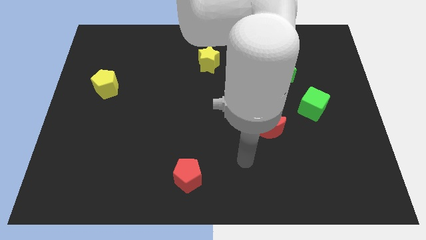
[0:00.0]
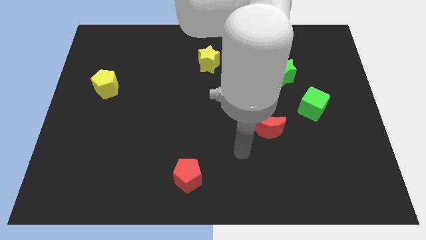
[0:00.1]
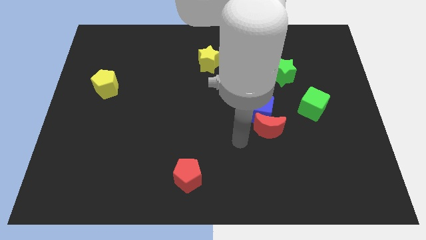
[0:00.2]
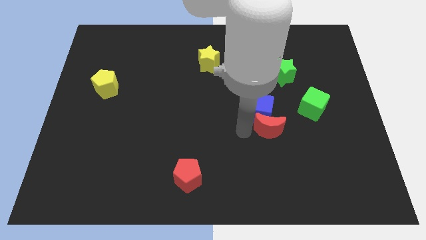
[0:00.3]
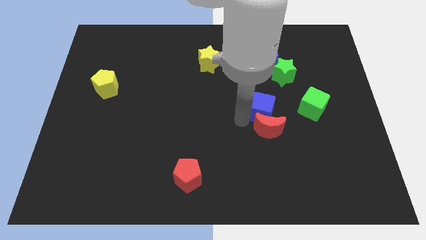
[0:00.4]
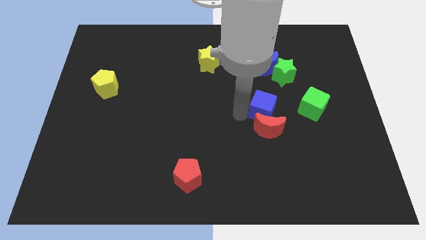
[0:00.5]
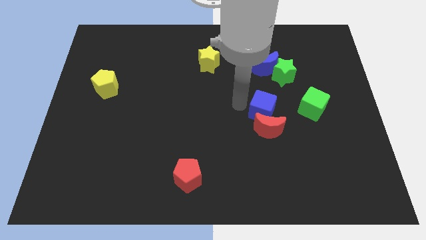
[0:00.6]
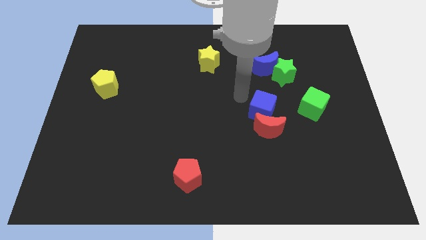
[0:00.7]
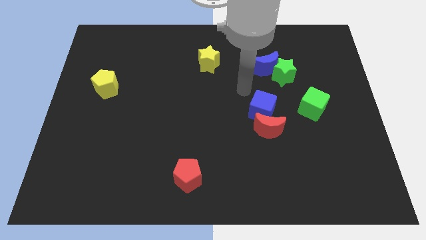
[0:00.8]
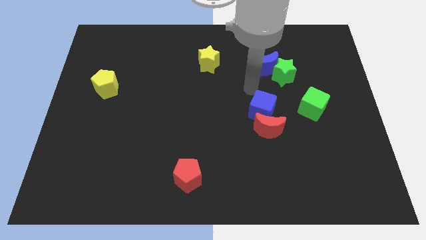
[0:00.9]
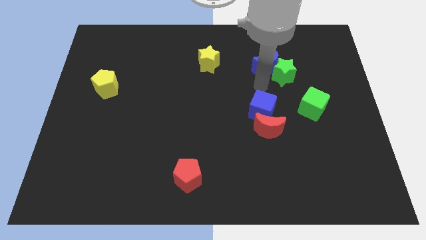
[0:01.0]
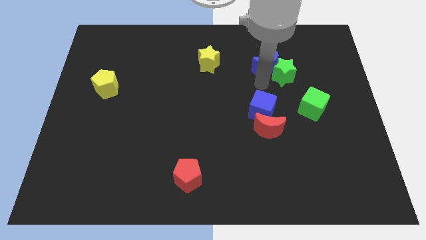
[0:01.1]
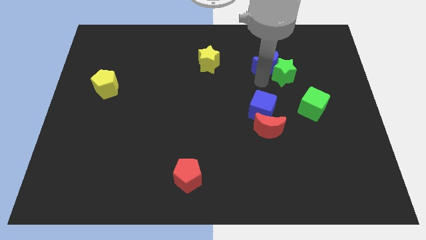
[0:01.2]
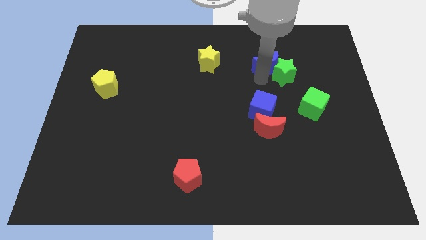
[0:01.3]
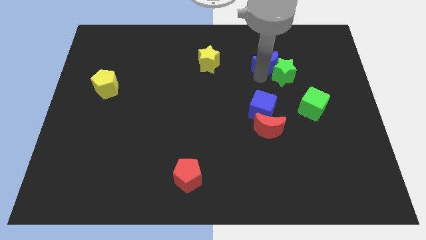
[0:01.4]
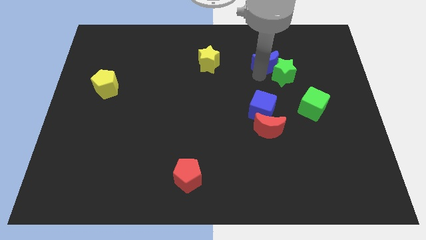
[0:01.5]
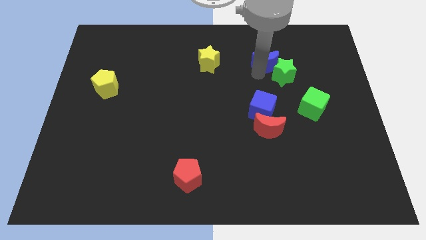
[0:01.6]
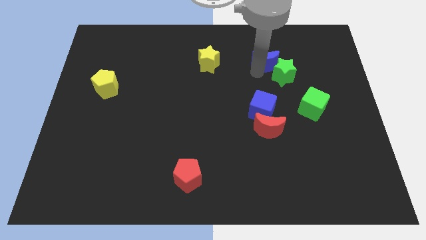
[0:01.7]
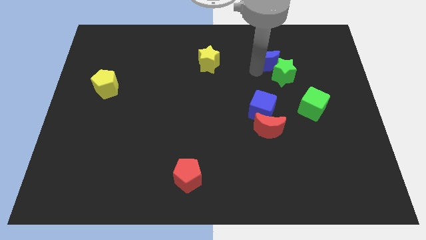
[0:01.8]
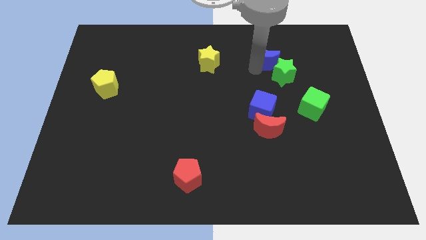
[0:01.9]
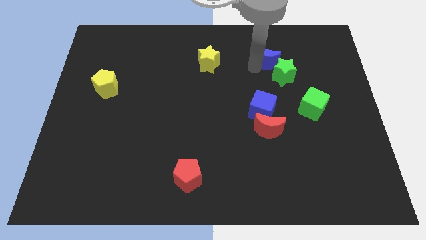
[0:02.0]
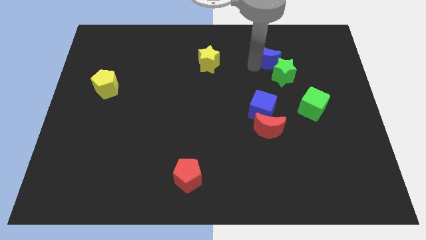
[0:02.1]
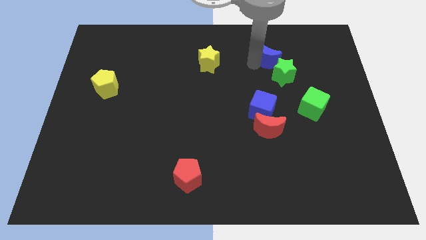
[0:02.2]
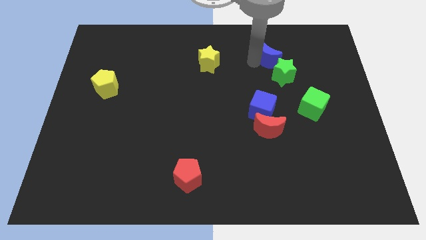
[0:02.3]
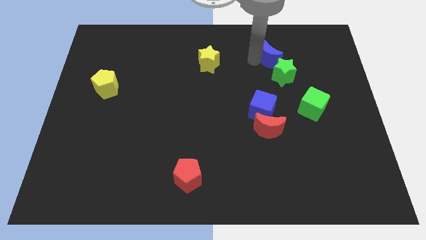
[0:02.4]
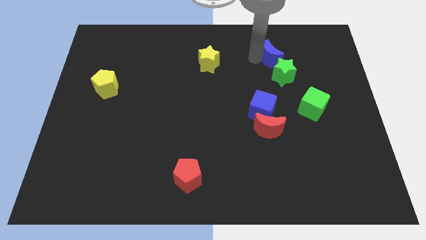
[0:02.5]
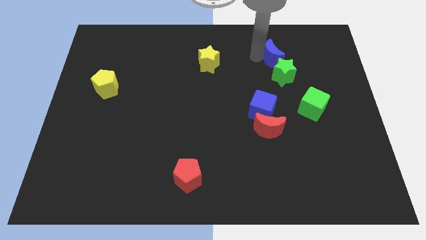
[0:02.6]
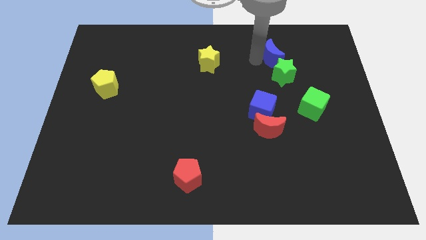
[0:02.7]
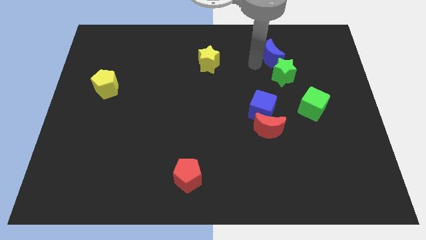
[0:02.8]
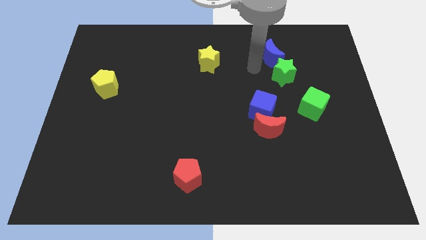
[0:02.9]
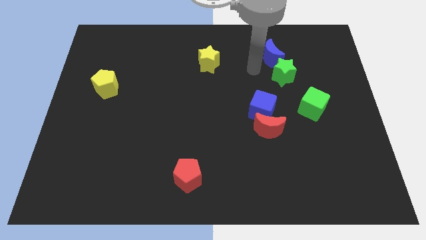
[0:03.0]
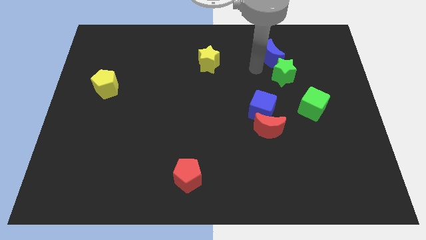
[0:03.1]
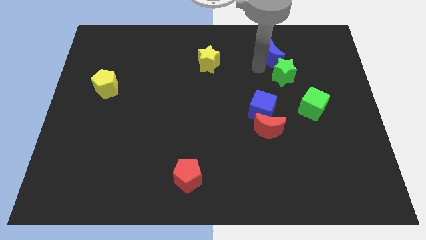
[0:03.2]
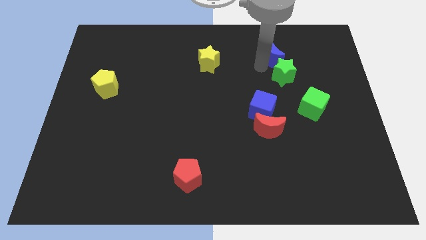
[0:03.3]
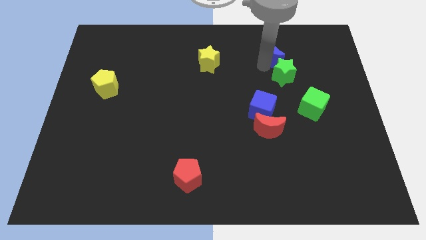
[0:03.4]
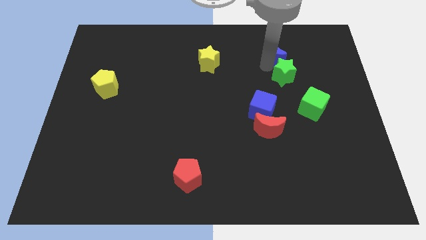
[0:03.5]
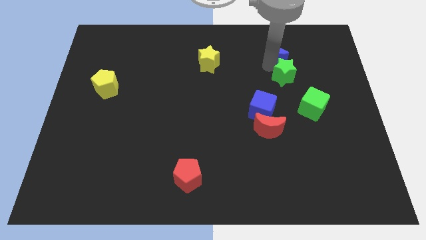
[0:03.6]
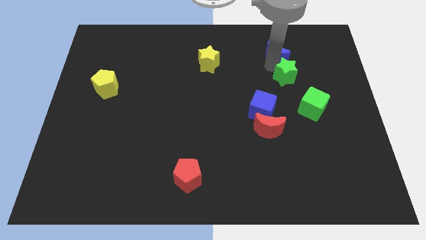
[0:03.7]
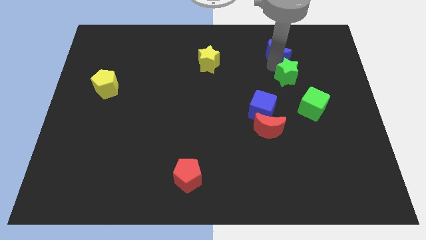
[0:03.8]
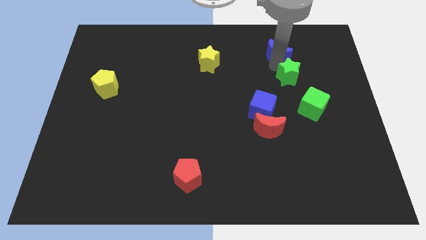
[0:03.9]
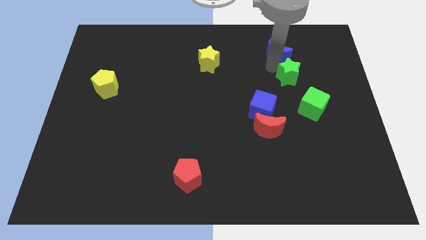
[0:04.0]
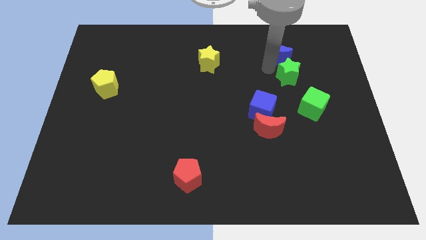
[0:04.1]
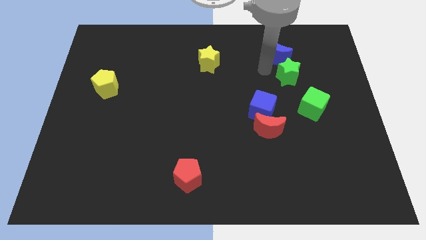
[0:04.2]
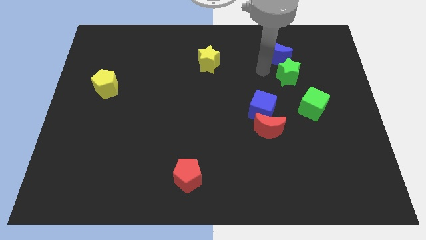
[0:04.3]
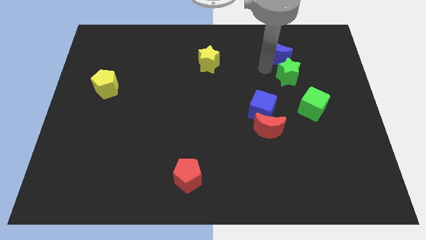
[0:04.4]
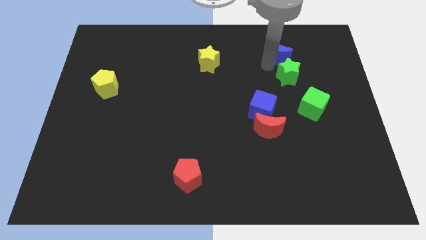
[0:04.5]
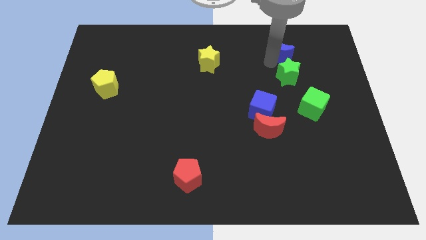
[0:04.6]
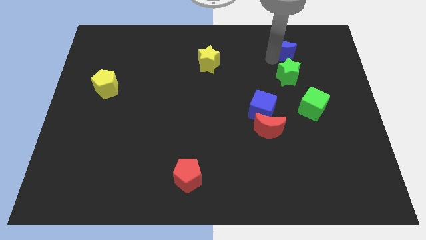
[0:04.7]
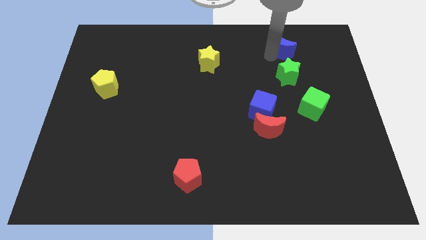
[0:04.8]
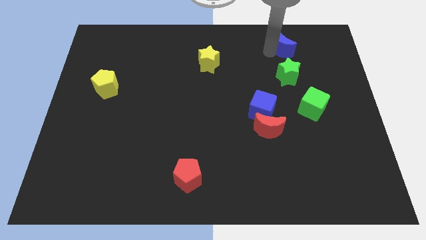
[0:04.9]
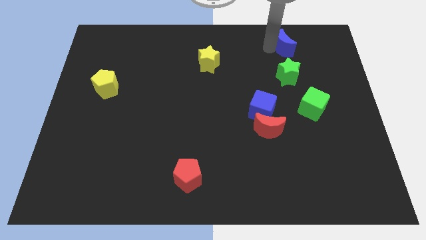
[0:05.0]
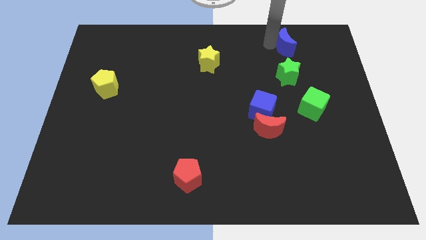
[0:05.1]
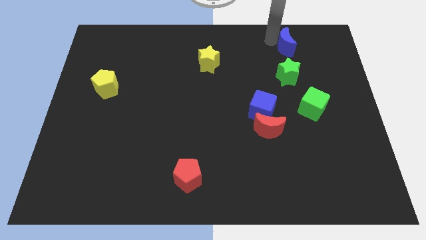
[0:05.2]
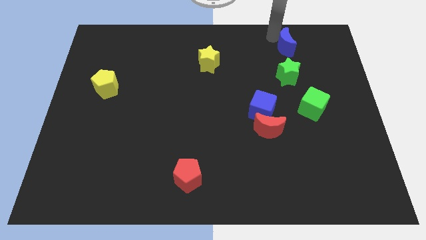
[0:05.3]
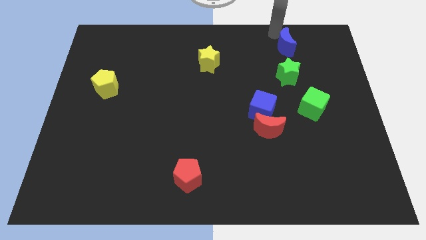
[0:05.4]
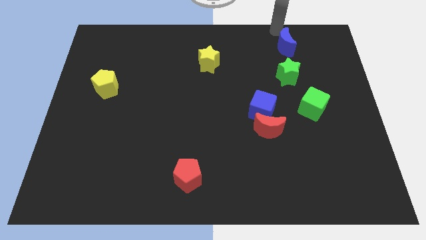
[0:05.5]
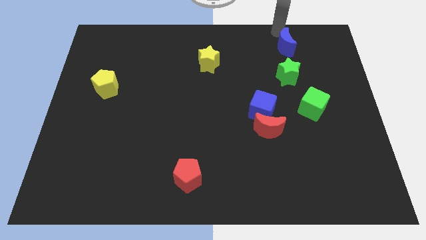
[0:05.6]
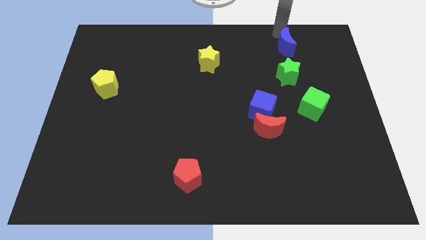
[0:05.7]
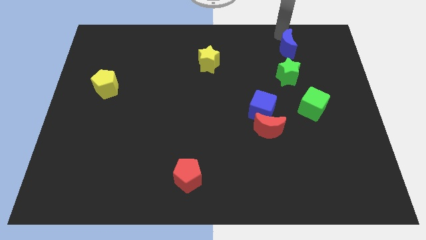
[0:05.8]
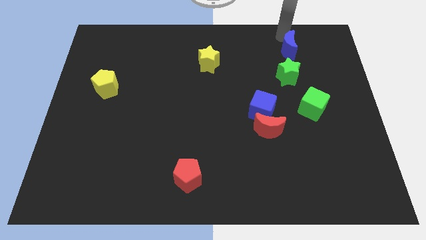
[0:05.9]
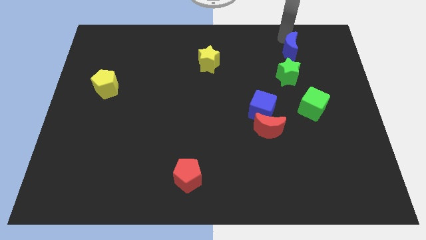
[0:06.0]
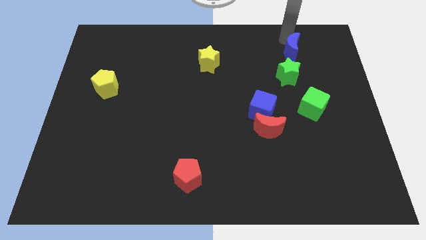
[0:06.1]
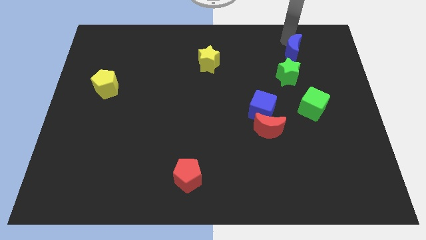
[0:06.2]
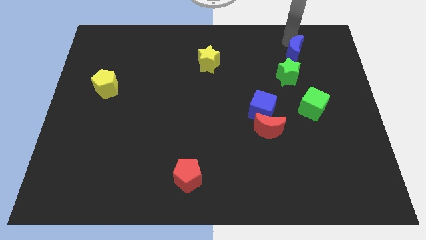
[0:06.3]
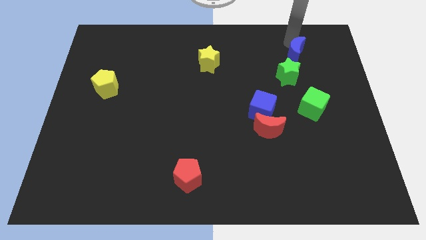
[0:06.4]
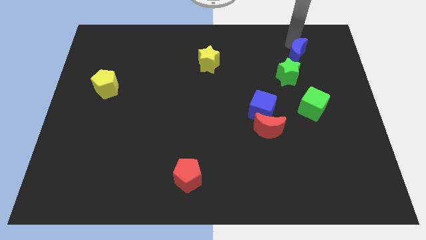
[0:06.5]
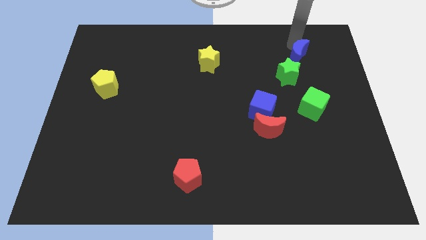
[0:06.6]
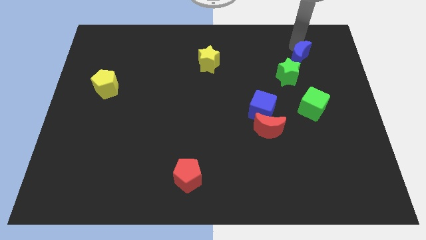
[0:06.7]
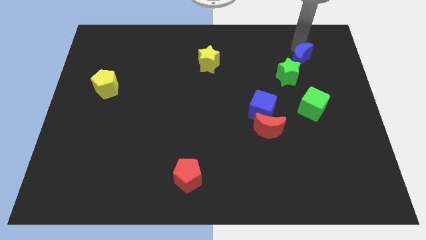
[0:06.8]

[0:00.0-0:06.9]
push the blue moon to the top of the green cube

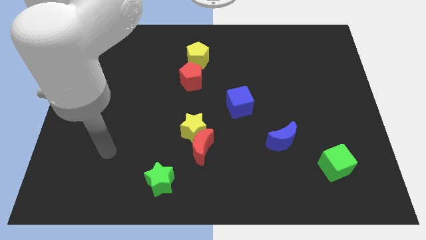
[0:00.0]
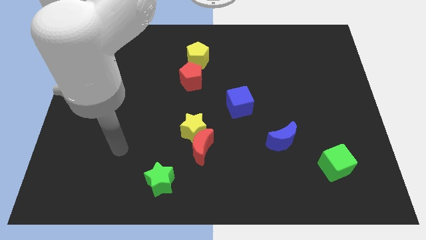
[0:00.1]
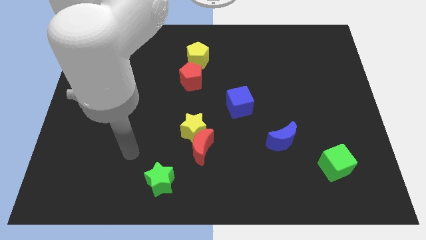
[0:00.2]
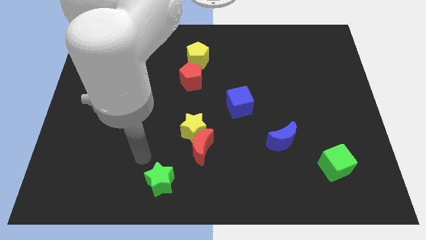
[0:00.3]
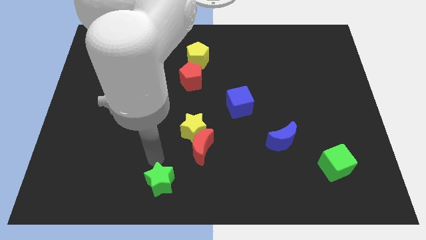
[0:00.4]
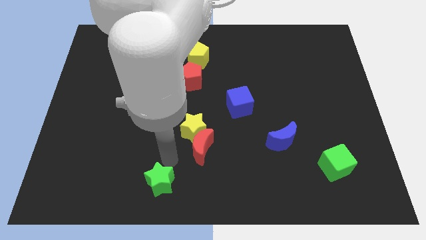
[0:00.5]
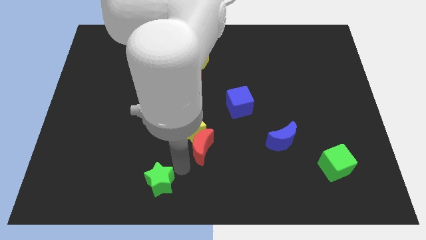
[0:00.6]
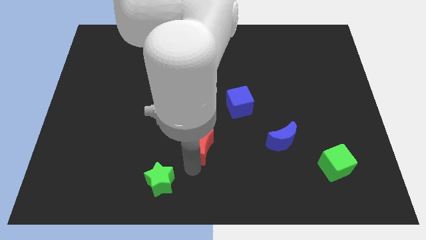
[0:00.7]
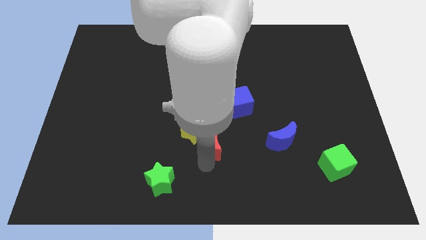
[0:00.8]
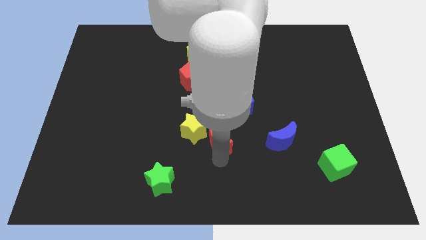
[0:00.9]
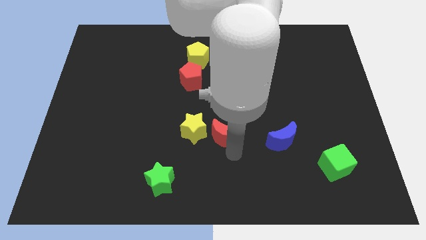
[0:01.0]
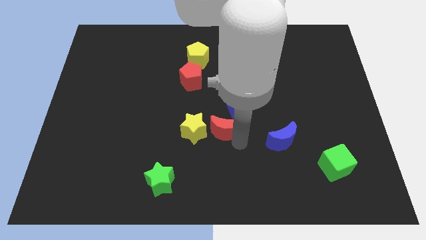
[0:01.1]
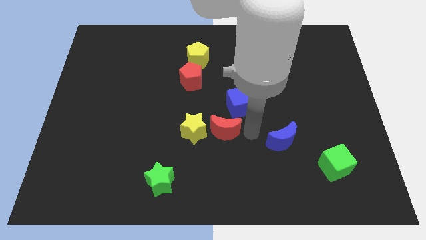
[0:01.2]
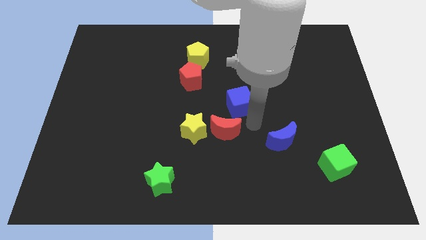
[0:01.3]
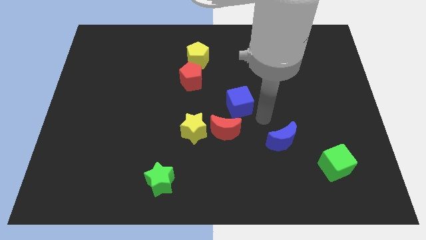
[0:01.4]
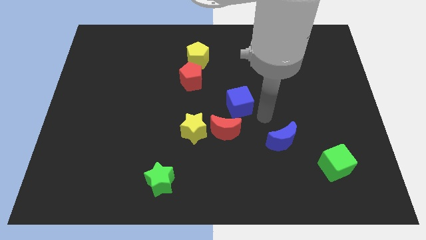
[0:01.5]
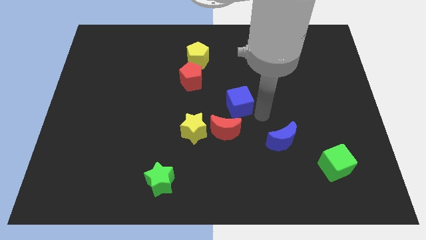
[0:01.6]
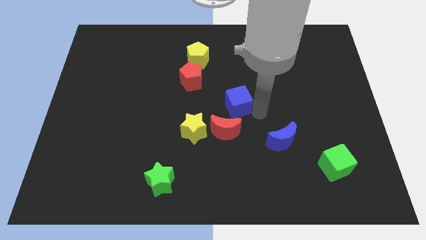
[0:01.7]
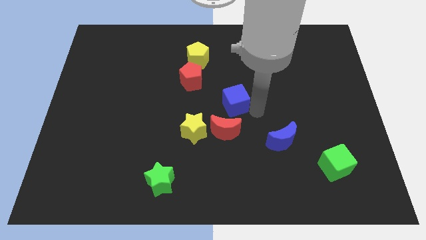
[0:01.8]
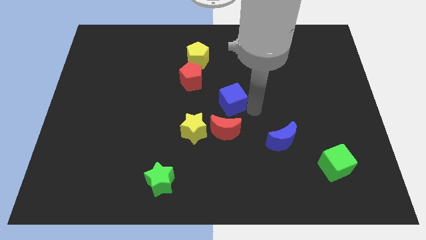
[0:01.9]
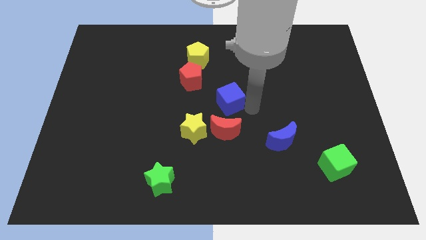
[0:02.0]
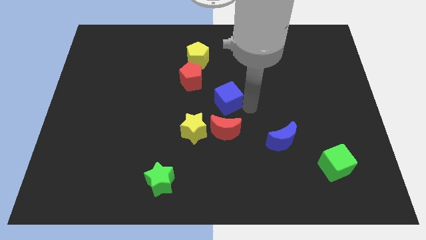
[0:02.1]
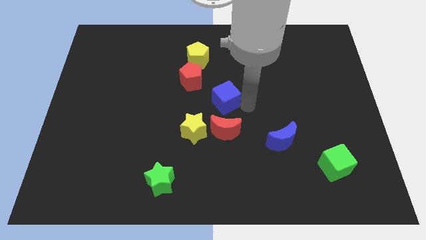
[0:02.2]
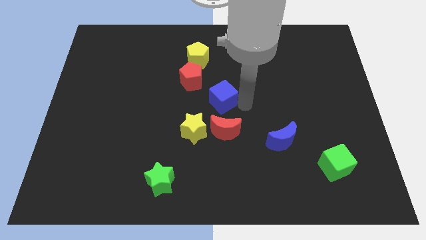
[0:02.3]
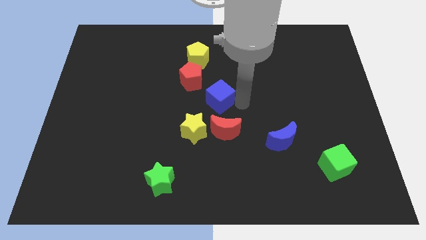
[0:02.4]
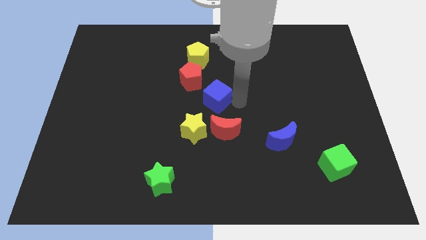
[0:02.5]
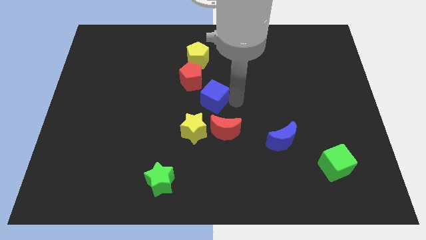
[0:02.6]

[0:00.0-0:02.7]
push the blue cube above the yellow star
